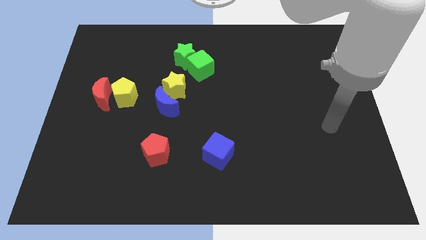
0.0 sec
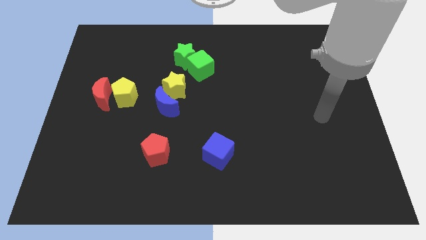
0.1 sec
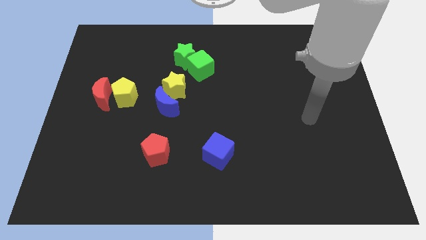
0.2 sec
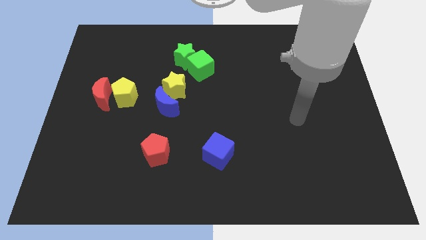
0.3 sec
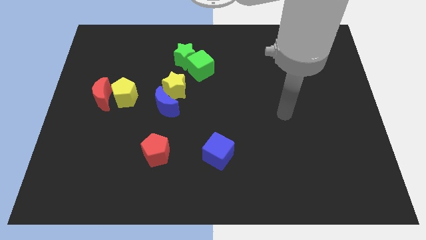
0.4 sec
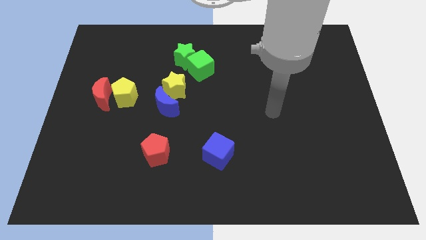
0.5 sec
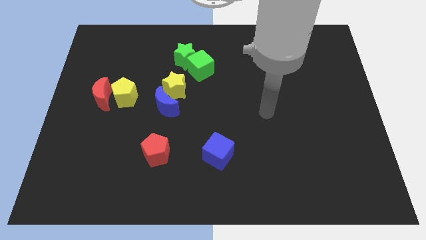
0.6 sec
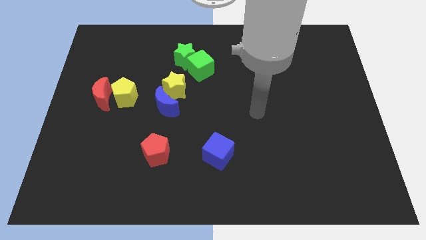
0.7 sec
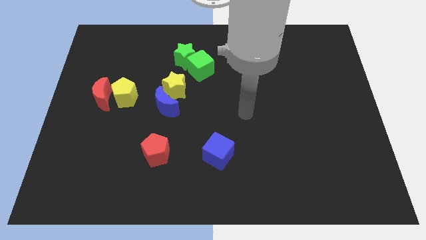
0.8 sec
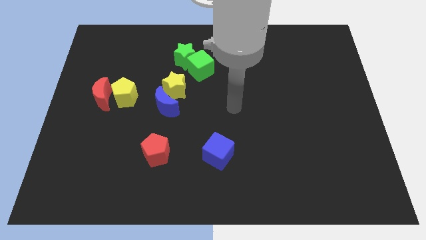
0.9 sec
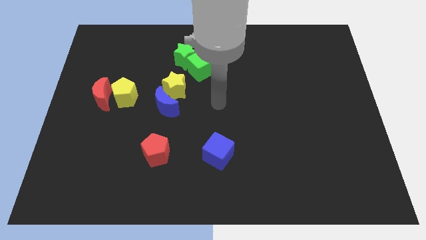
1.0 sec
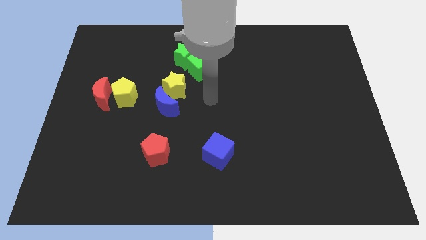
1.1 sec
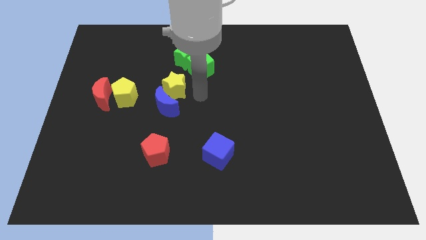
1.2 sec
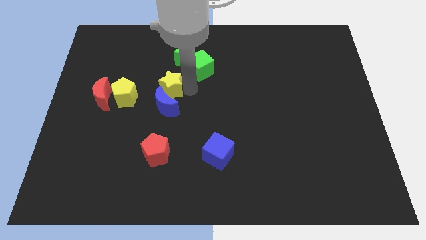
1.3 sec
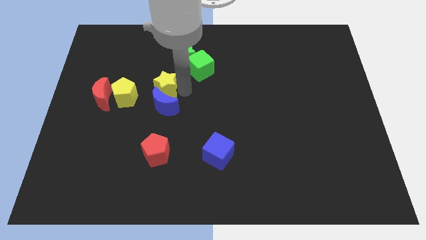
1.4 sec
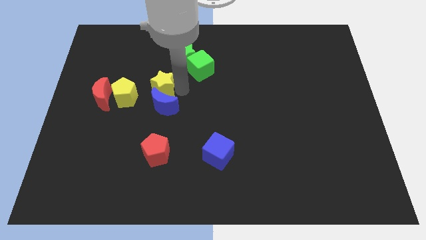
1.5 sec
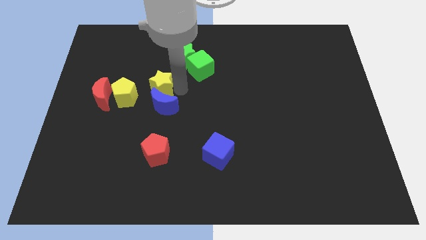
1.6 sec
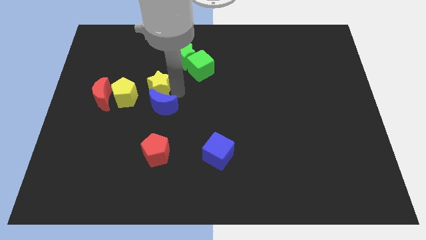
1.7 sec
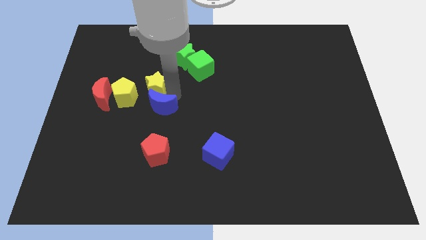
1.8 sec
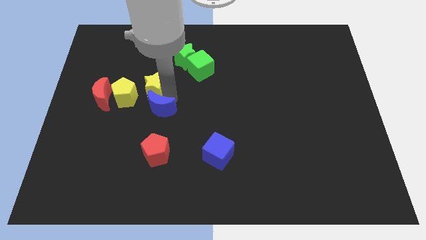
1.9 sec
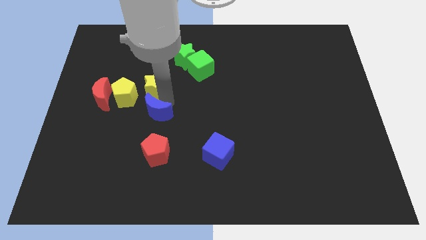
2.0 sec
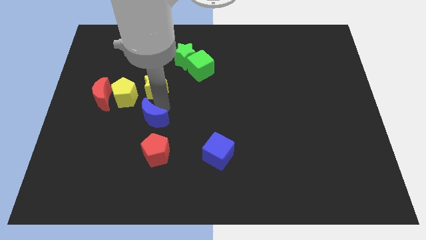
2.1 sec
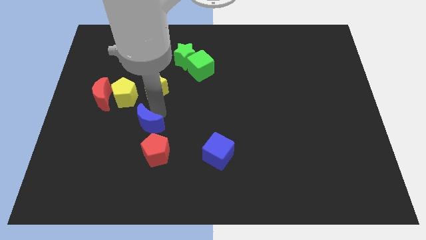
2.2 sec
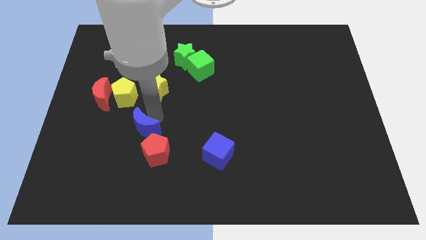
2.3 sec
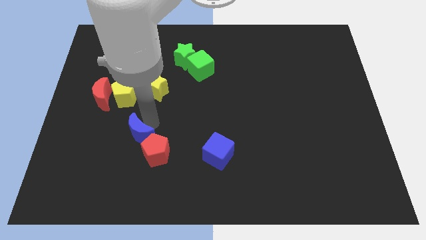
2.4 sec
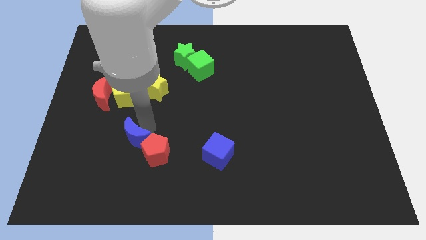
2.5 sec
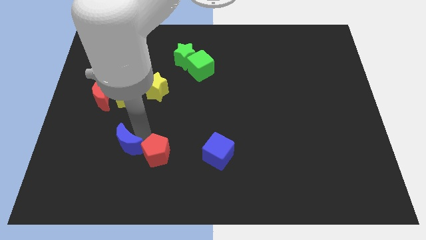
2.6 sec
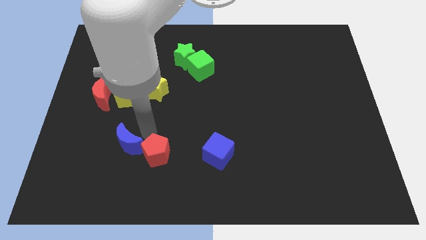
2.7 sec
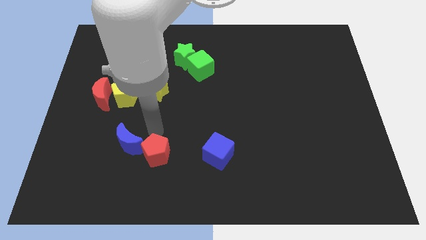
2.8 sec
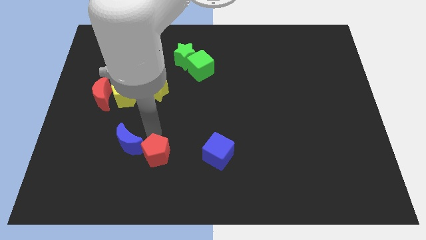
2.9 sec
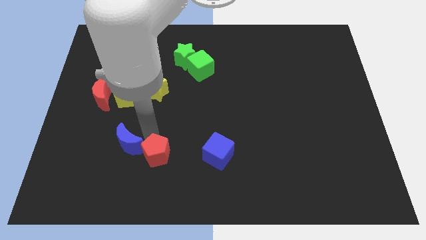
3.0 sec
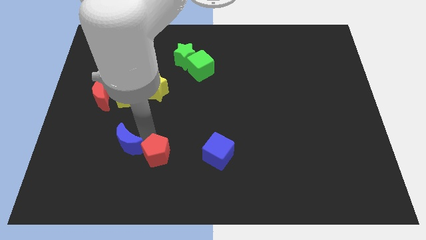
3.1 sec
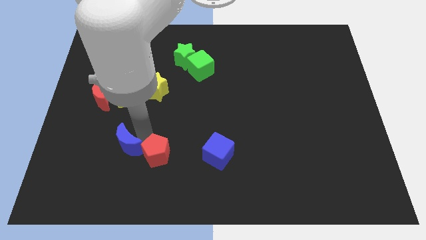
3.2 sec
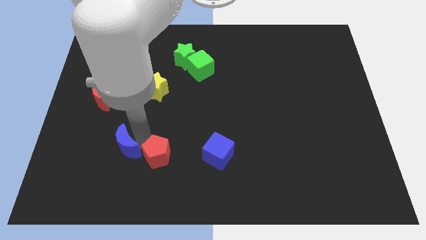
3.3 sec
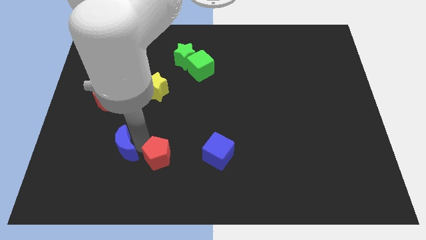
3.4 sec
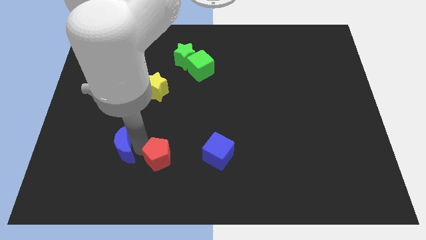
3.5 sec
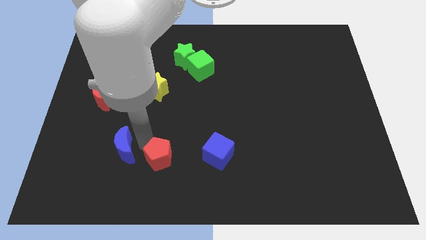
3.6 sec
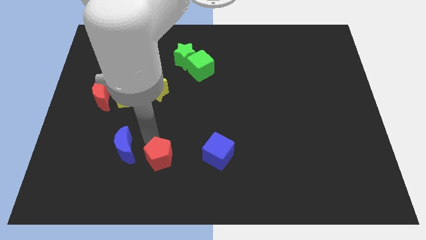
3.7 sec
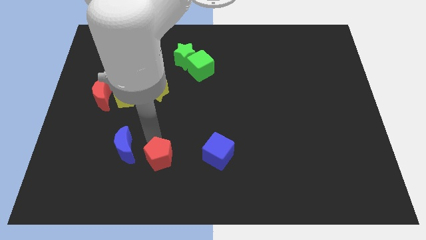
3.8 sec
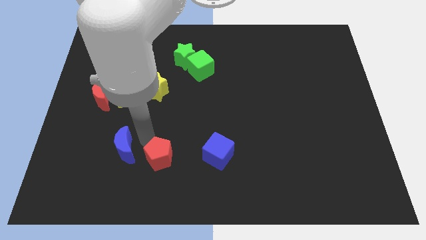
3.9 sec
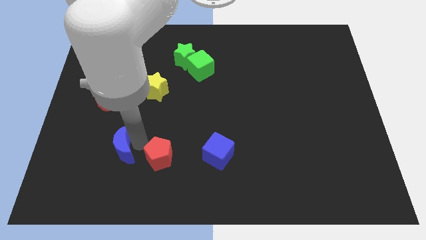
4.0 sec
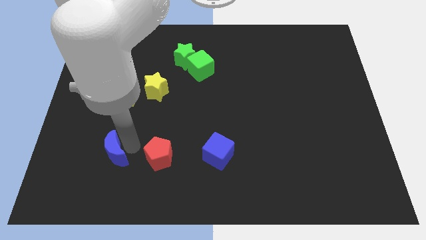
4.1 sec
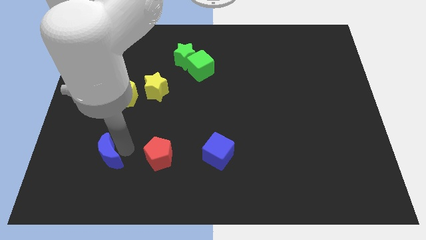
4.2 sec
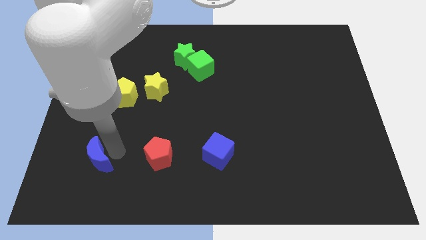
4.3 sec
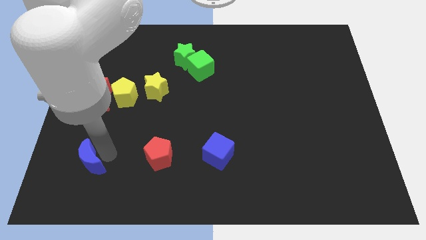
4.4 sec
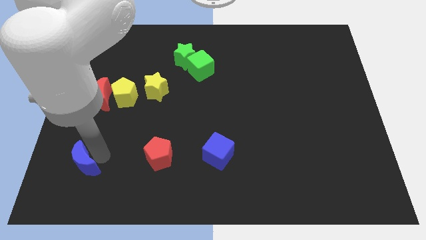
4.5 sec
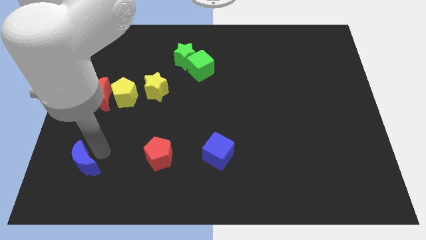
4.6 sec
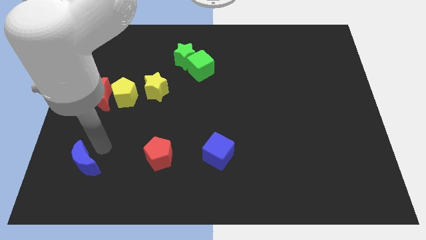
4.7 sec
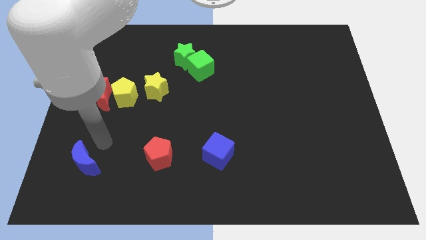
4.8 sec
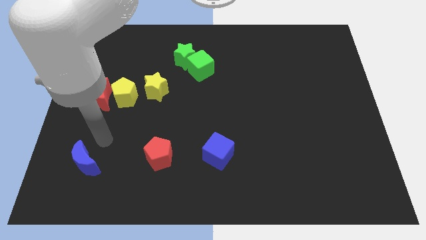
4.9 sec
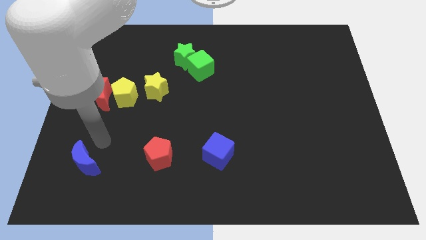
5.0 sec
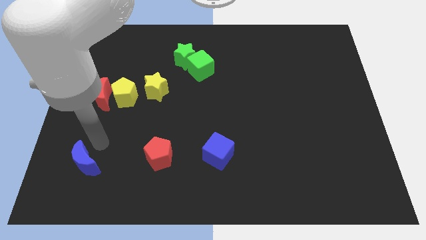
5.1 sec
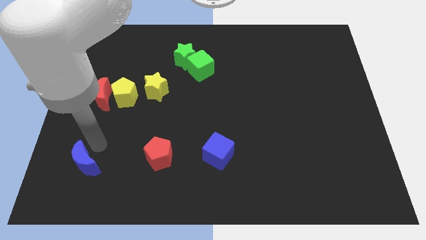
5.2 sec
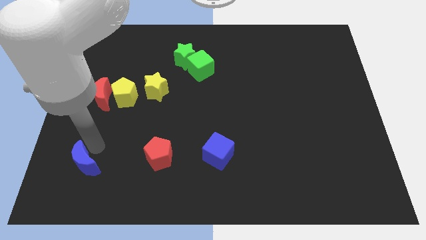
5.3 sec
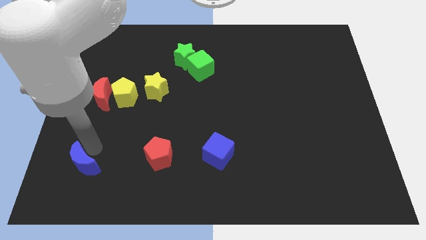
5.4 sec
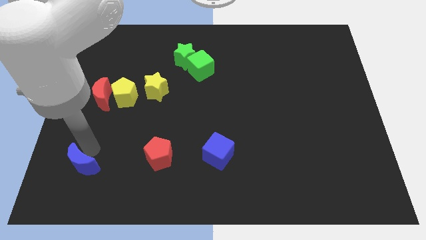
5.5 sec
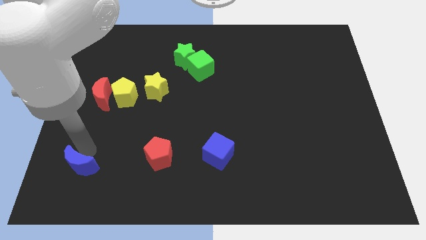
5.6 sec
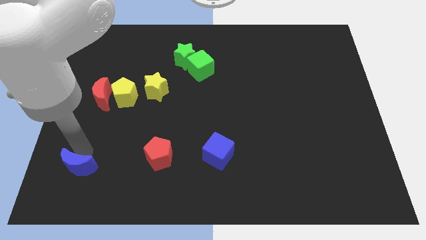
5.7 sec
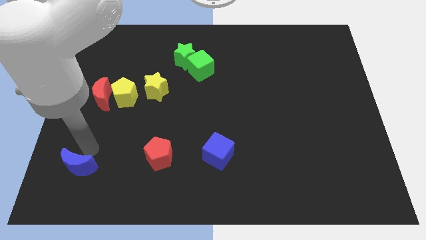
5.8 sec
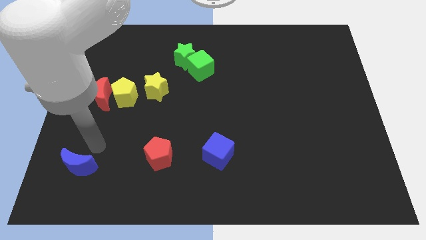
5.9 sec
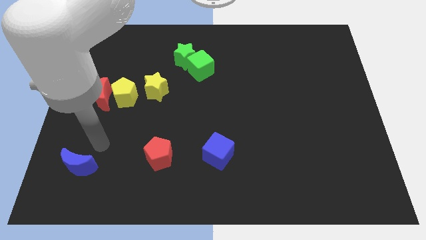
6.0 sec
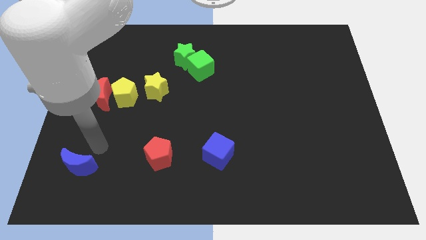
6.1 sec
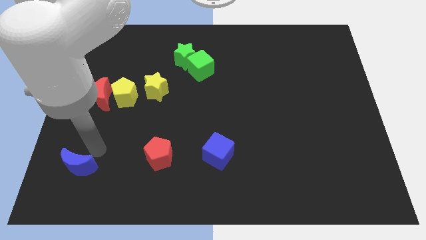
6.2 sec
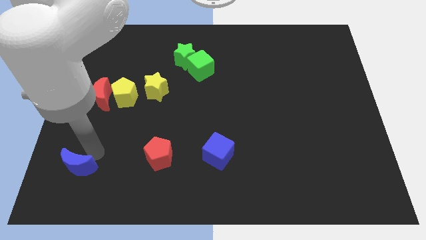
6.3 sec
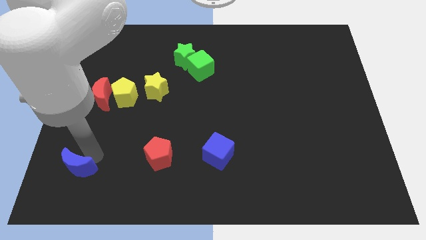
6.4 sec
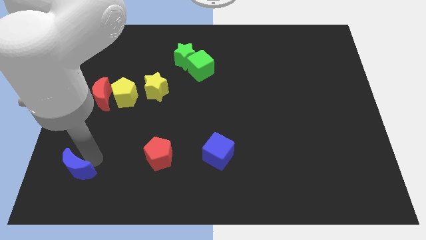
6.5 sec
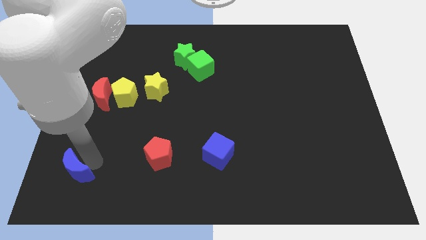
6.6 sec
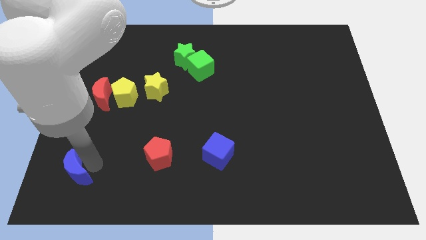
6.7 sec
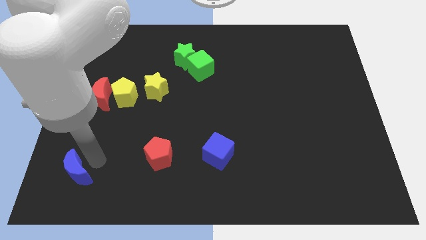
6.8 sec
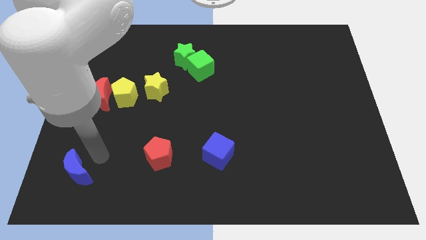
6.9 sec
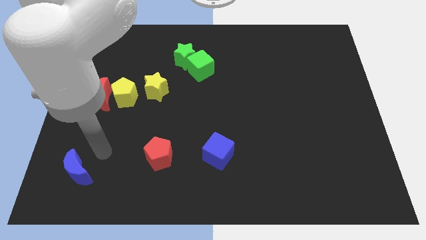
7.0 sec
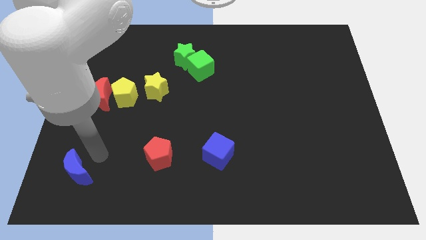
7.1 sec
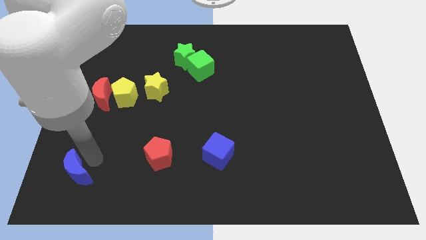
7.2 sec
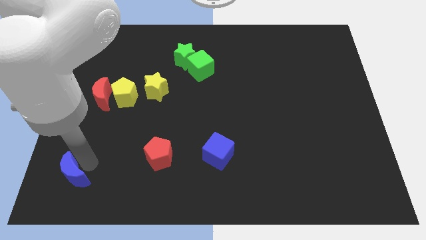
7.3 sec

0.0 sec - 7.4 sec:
put the blue moon to the bottom left corner
